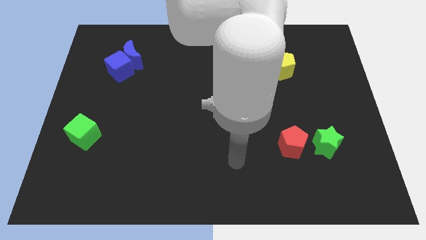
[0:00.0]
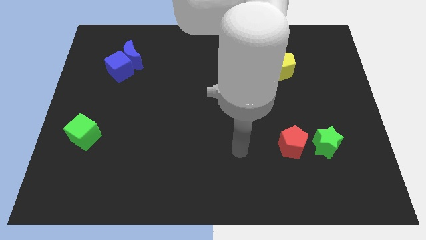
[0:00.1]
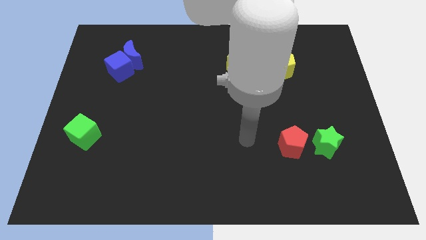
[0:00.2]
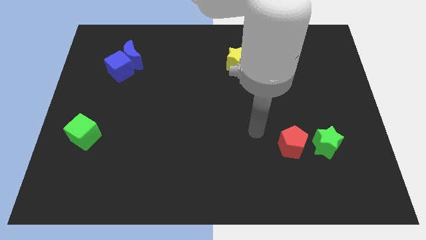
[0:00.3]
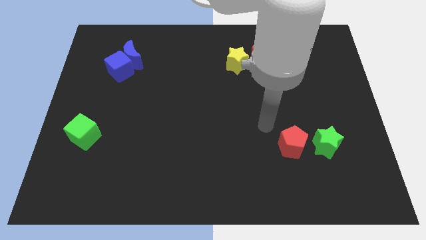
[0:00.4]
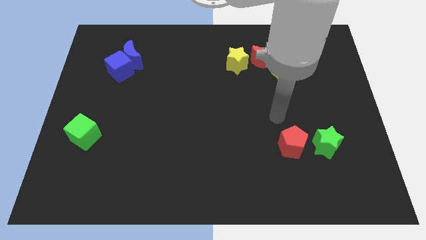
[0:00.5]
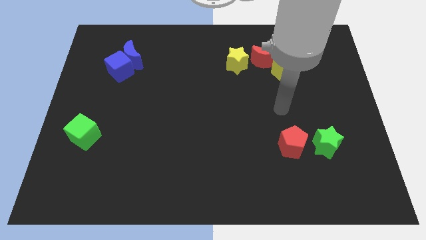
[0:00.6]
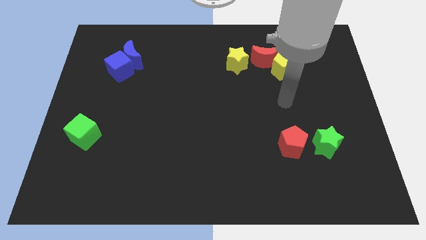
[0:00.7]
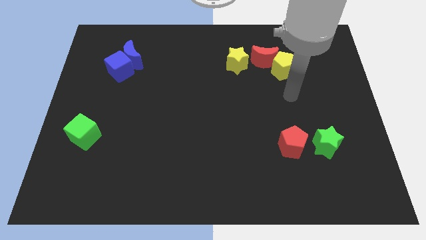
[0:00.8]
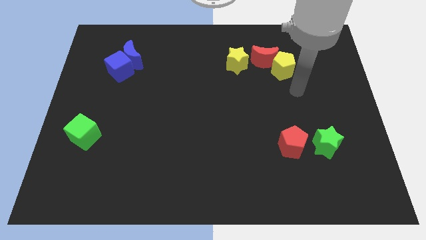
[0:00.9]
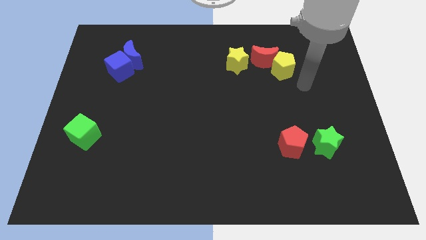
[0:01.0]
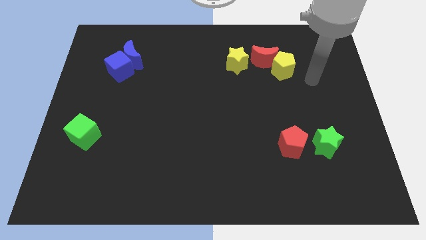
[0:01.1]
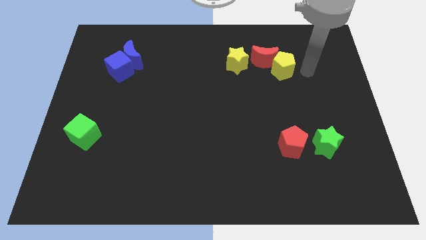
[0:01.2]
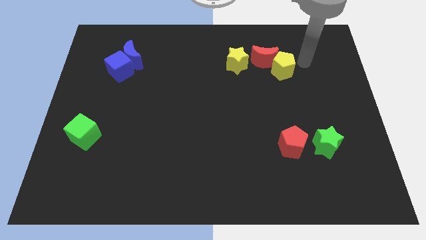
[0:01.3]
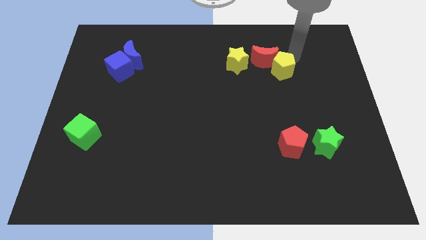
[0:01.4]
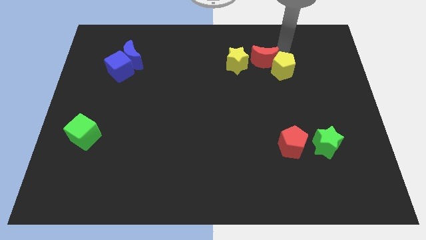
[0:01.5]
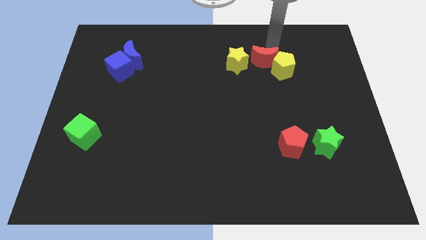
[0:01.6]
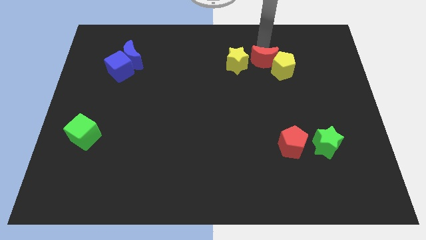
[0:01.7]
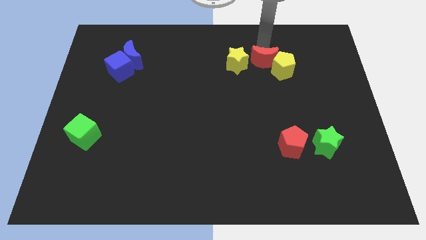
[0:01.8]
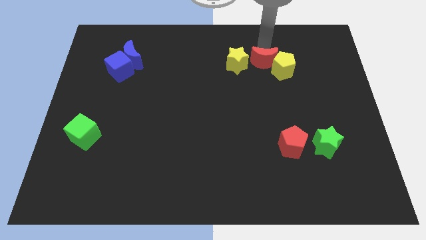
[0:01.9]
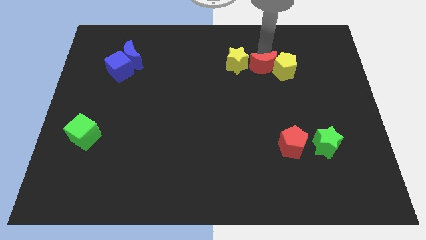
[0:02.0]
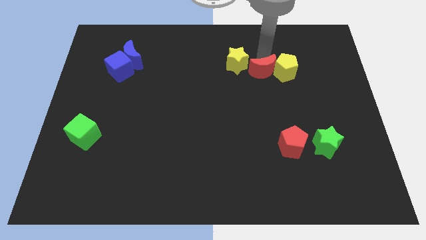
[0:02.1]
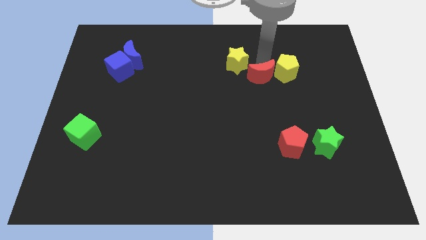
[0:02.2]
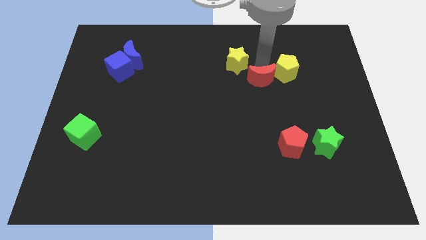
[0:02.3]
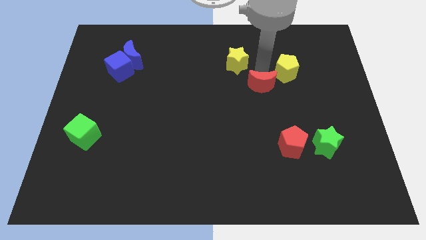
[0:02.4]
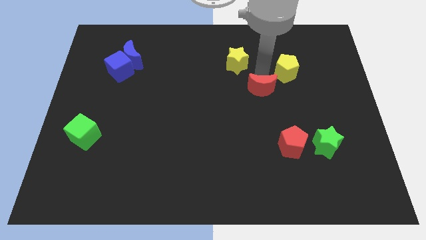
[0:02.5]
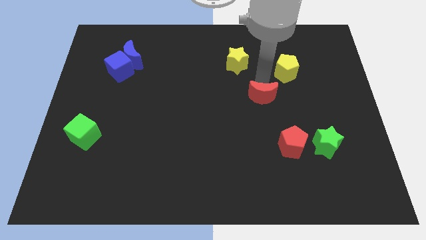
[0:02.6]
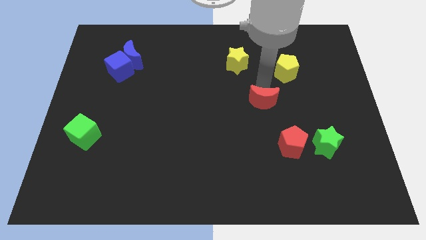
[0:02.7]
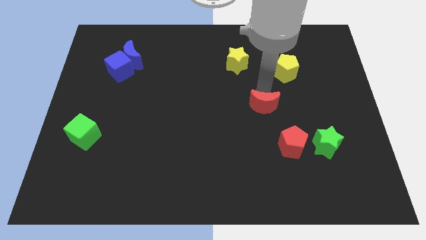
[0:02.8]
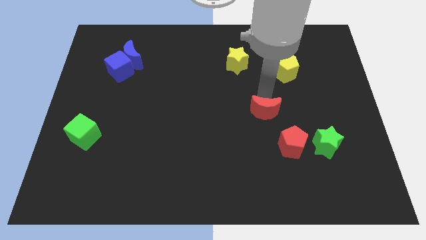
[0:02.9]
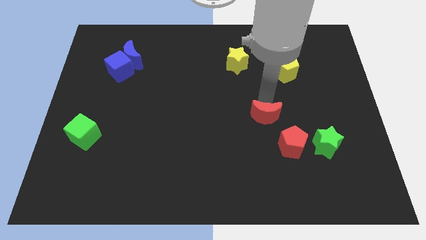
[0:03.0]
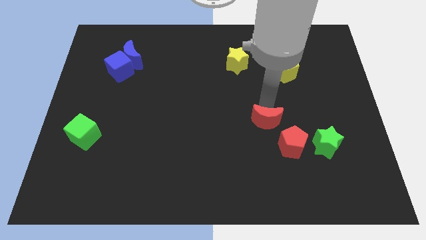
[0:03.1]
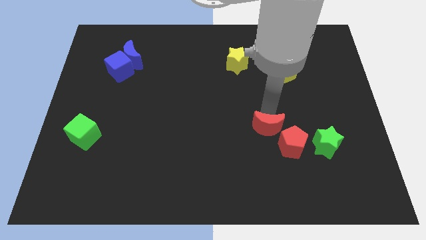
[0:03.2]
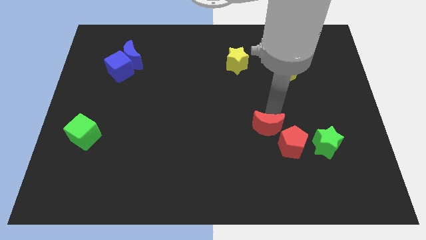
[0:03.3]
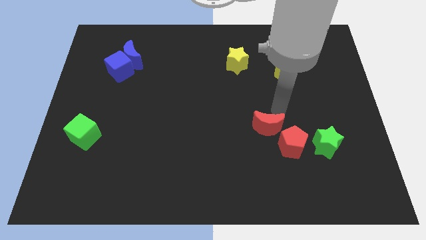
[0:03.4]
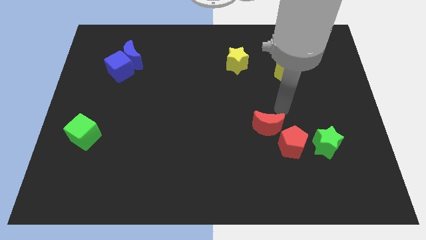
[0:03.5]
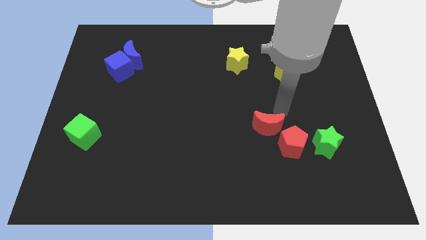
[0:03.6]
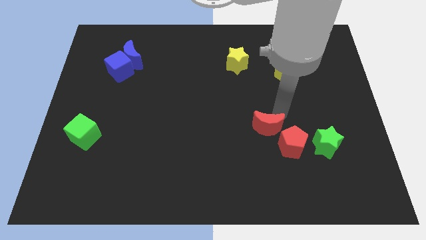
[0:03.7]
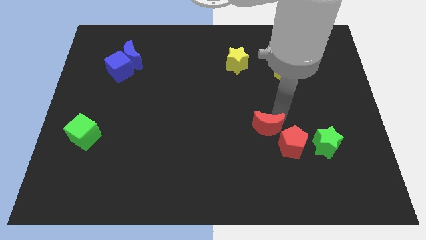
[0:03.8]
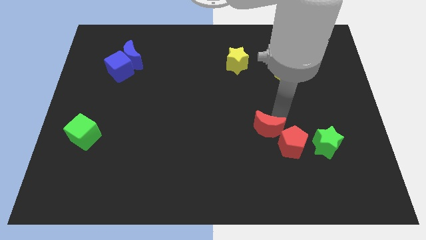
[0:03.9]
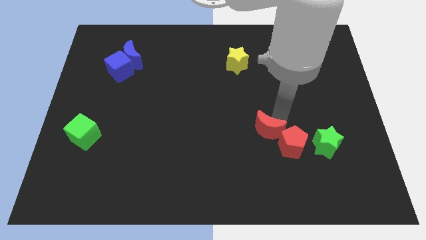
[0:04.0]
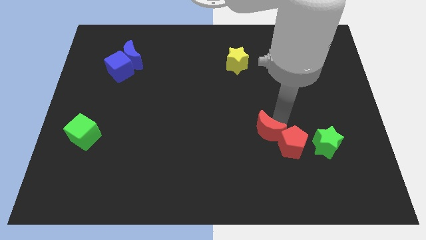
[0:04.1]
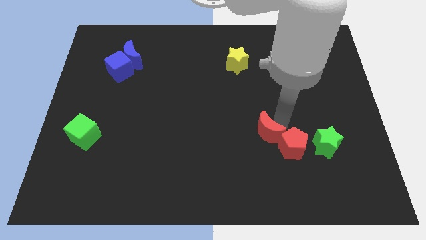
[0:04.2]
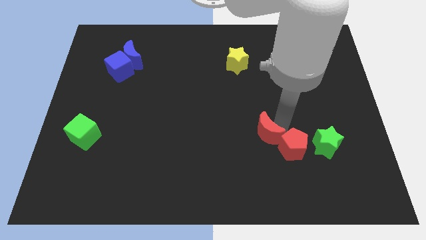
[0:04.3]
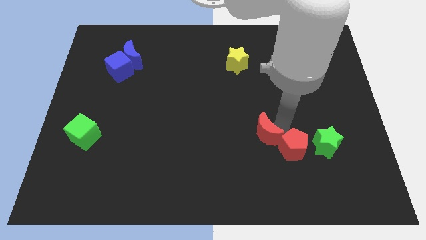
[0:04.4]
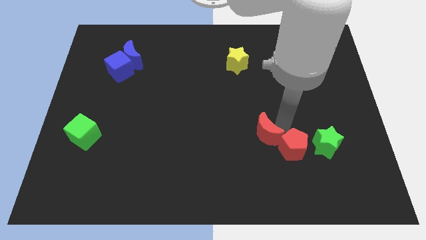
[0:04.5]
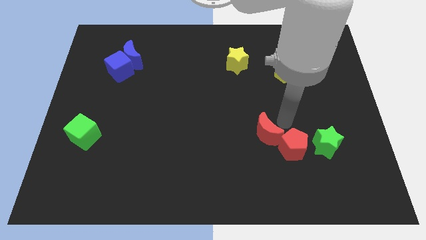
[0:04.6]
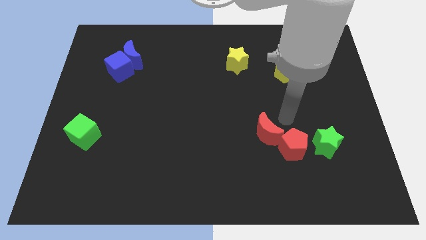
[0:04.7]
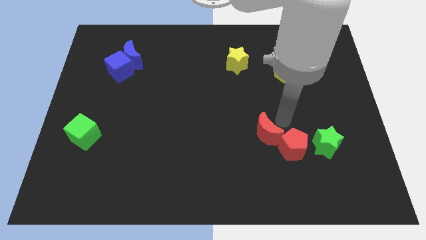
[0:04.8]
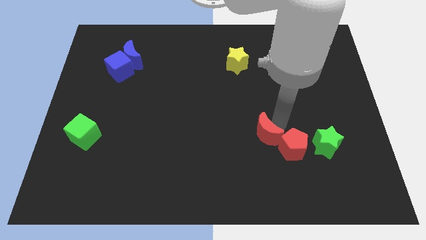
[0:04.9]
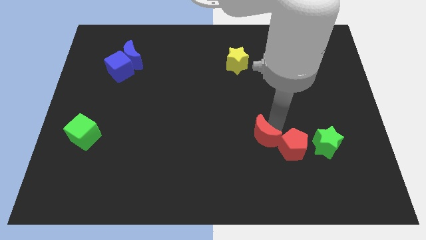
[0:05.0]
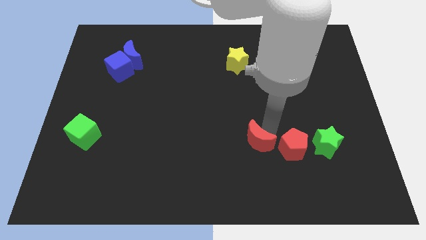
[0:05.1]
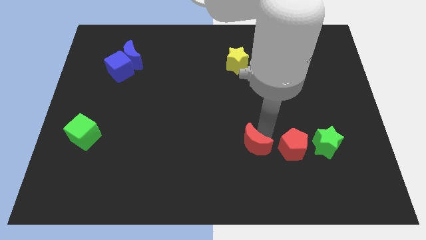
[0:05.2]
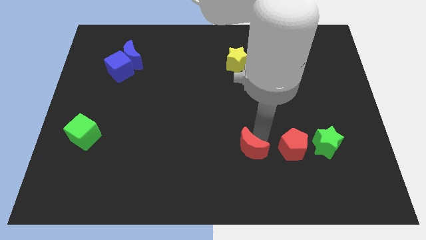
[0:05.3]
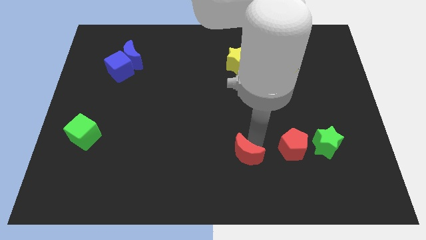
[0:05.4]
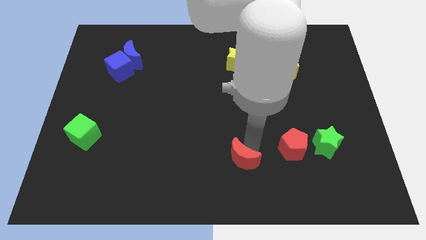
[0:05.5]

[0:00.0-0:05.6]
move the red moon to the bottom
